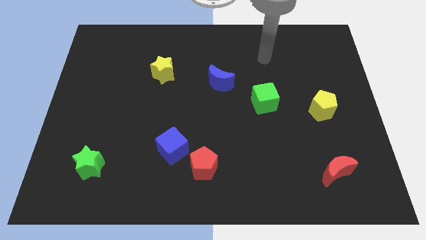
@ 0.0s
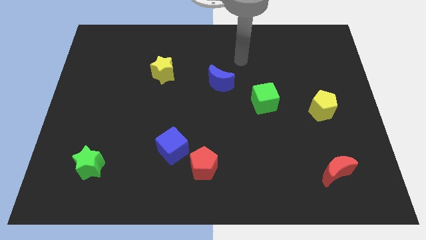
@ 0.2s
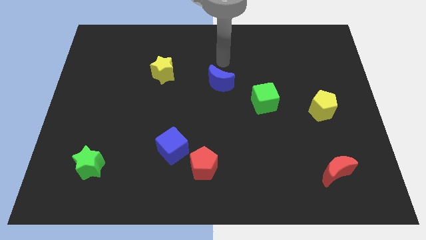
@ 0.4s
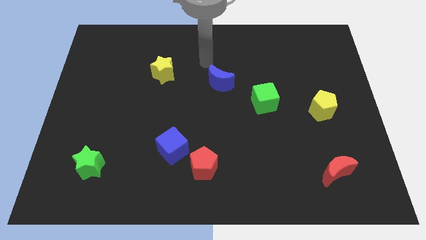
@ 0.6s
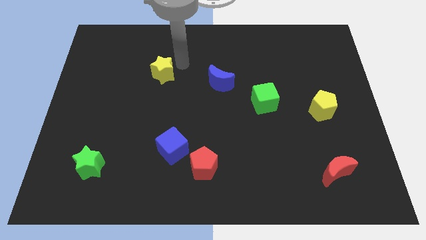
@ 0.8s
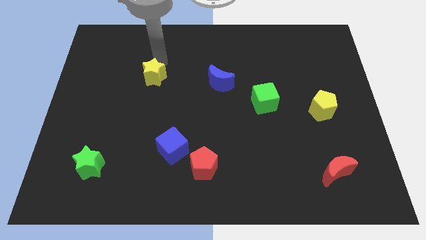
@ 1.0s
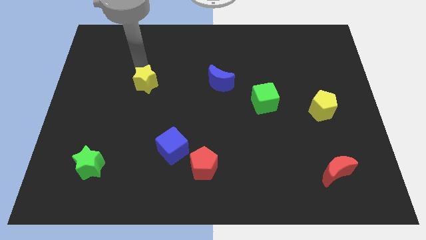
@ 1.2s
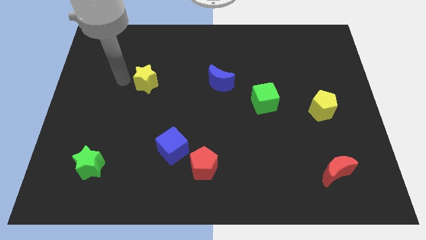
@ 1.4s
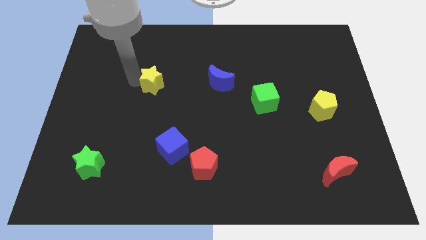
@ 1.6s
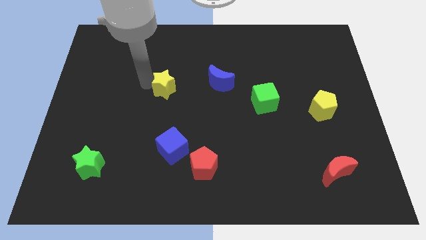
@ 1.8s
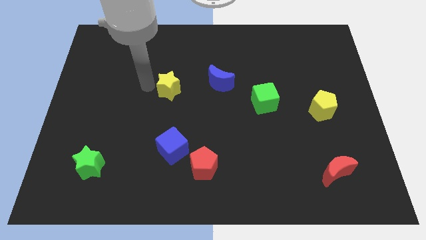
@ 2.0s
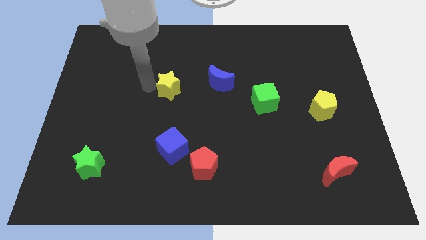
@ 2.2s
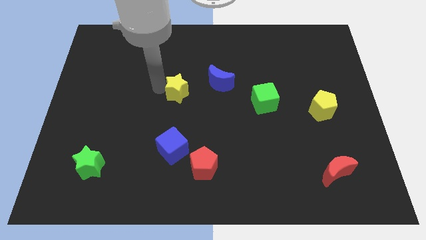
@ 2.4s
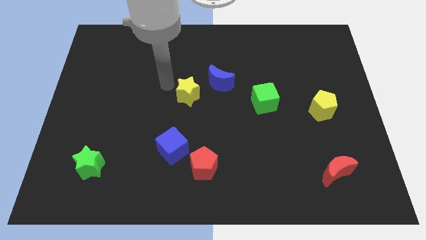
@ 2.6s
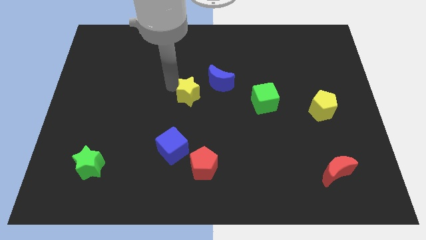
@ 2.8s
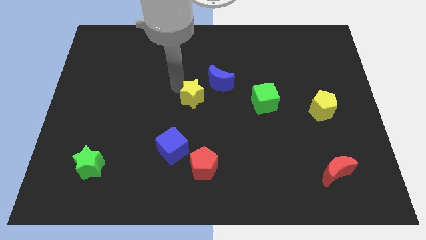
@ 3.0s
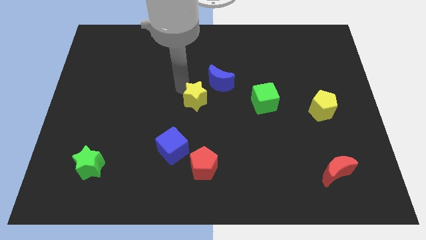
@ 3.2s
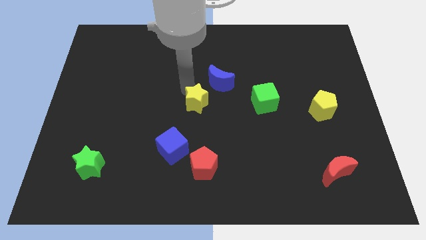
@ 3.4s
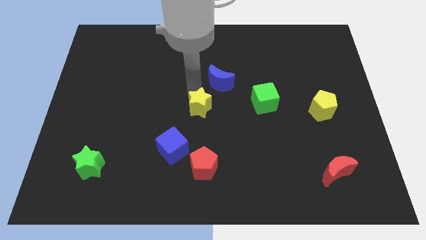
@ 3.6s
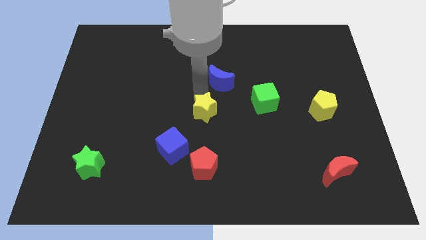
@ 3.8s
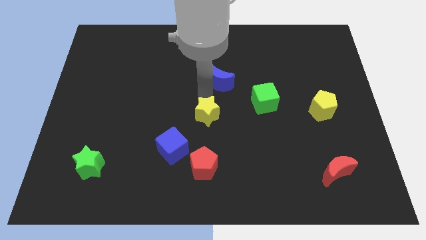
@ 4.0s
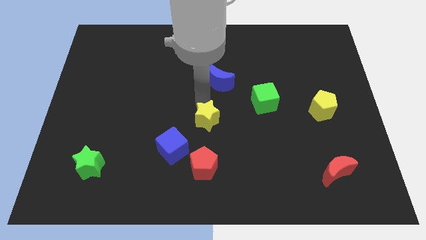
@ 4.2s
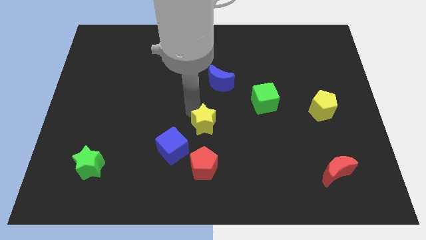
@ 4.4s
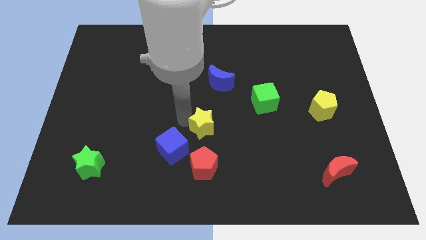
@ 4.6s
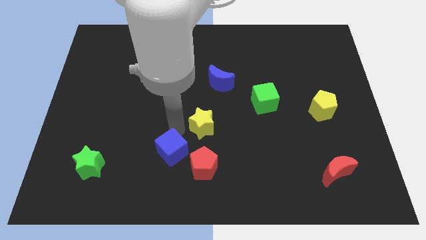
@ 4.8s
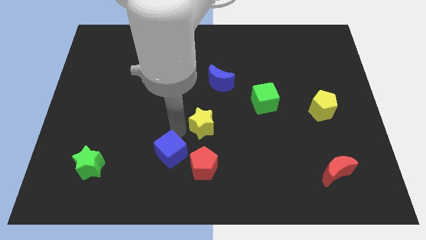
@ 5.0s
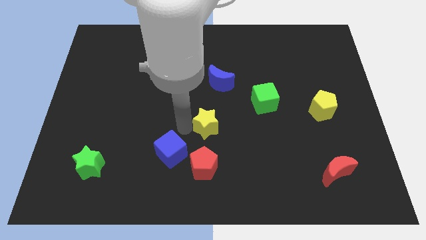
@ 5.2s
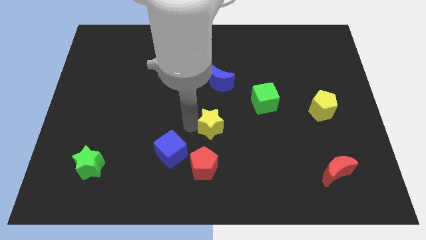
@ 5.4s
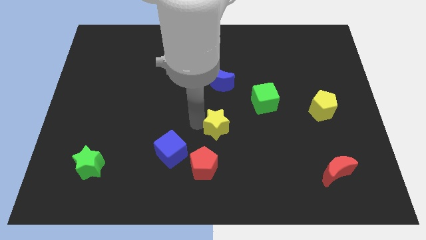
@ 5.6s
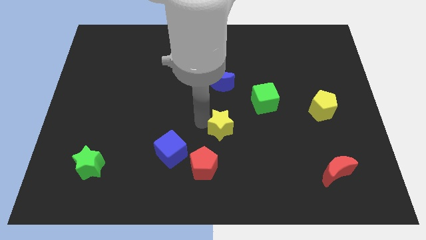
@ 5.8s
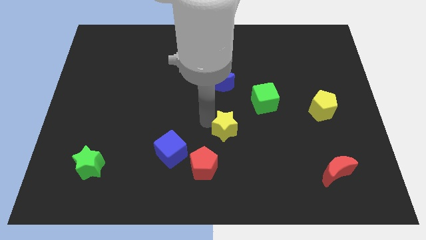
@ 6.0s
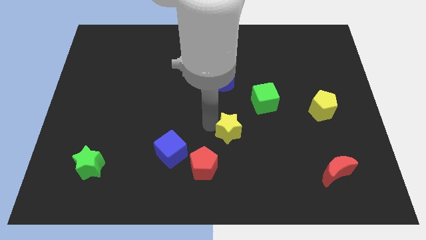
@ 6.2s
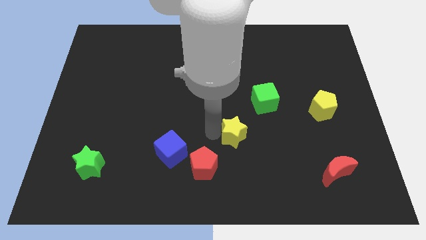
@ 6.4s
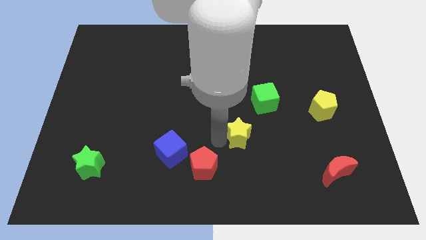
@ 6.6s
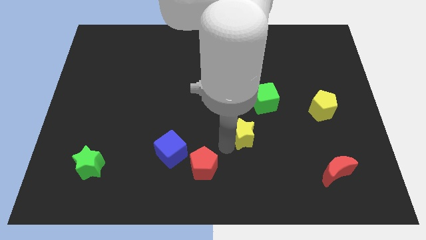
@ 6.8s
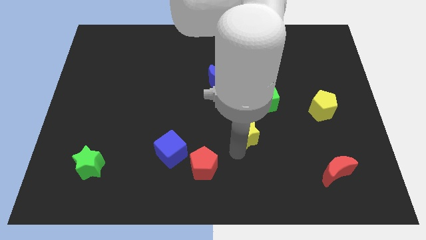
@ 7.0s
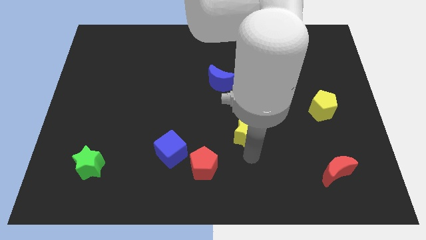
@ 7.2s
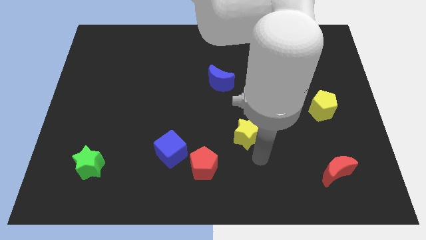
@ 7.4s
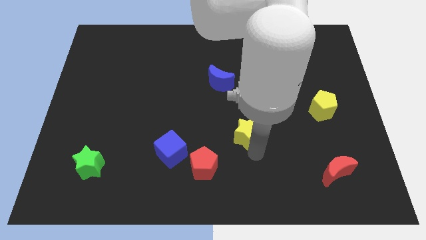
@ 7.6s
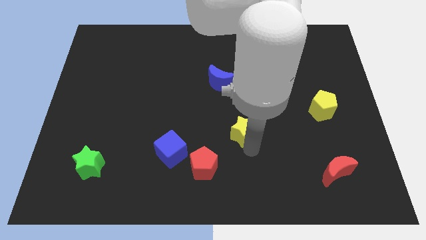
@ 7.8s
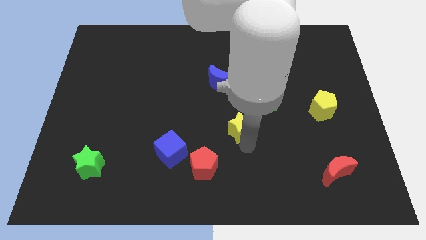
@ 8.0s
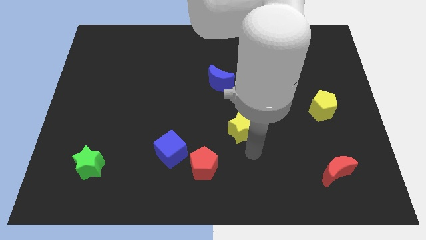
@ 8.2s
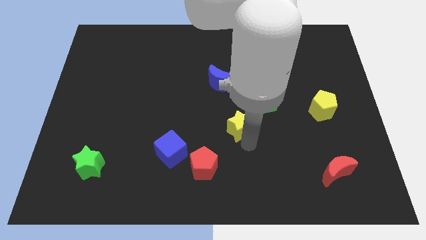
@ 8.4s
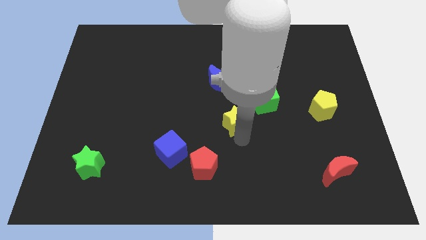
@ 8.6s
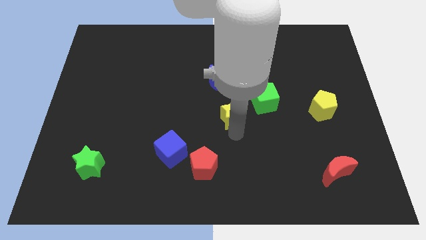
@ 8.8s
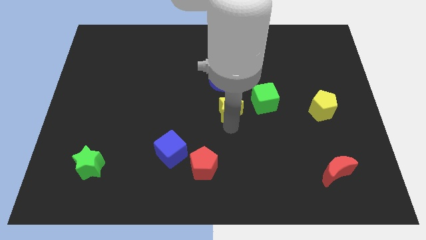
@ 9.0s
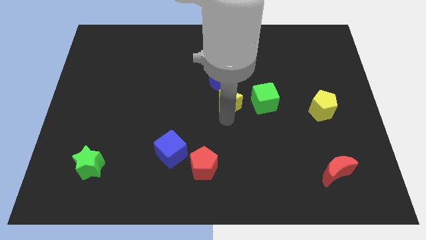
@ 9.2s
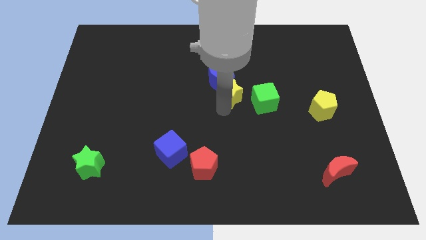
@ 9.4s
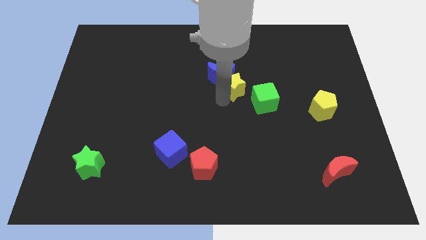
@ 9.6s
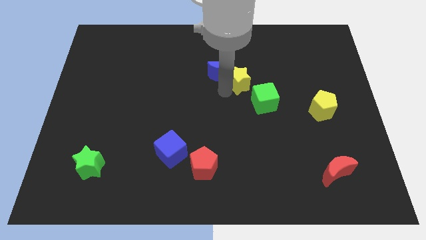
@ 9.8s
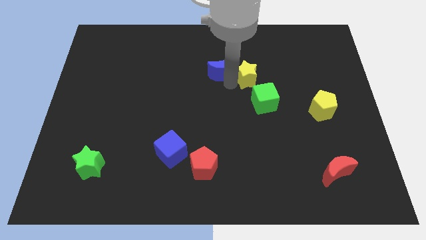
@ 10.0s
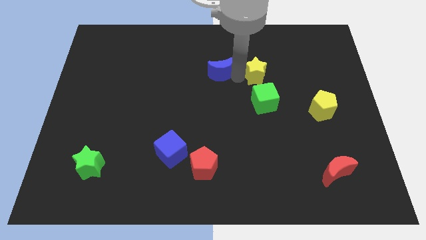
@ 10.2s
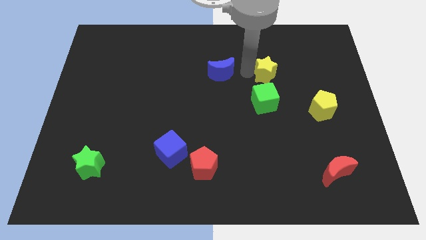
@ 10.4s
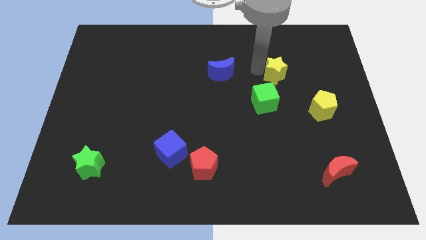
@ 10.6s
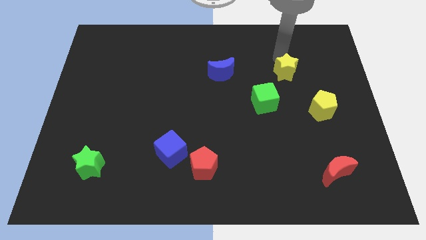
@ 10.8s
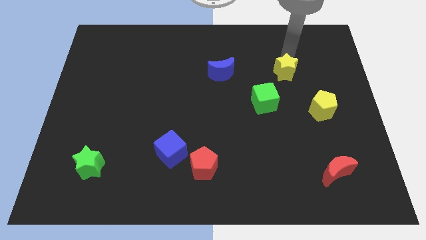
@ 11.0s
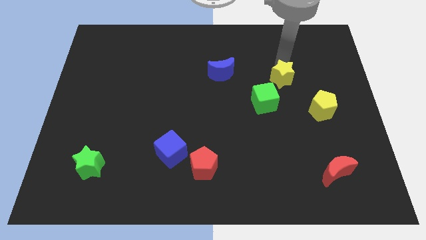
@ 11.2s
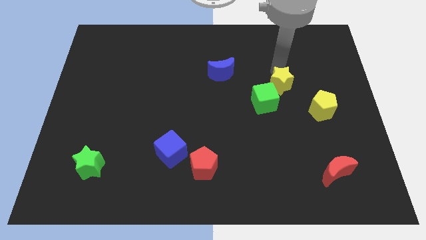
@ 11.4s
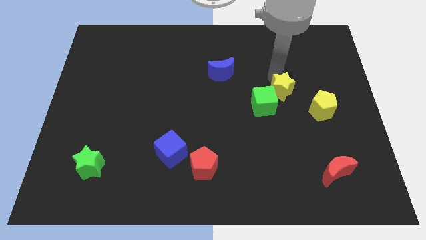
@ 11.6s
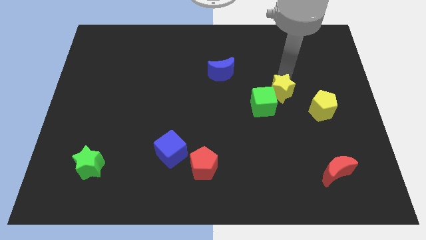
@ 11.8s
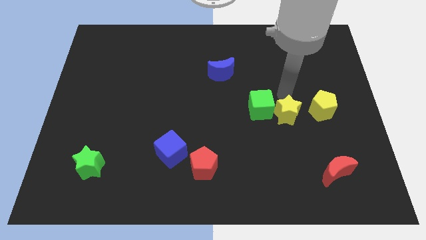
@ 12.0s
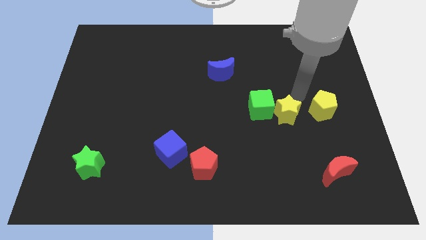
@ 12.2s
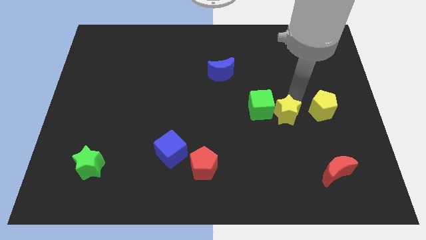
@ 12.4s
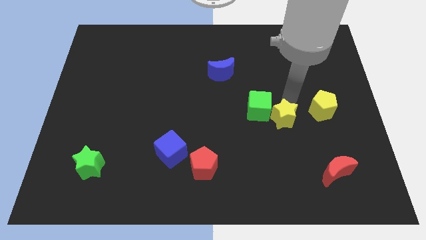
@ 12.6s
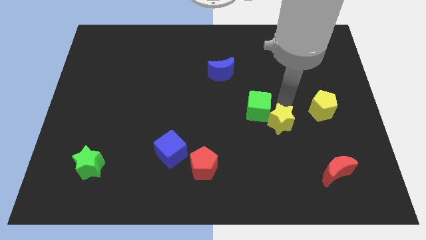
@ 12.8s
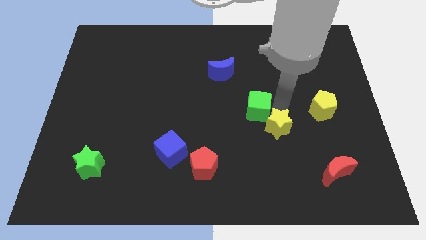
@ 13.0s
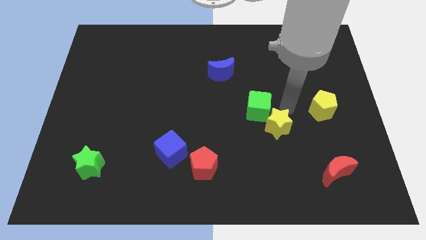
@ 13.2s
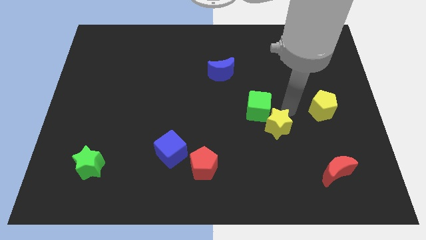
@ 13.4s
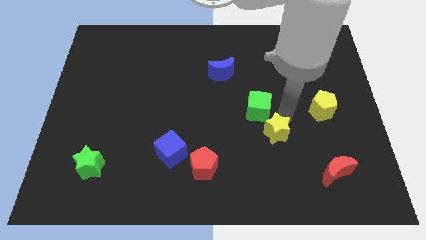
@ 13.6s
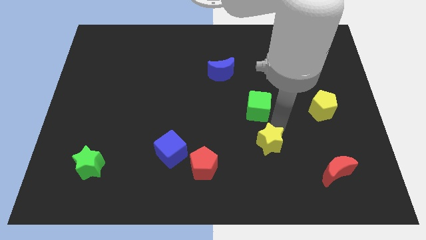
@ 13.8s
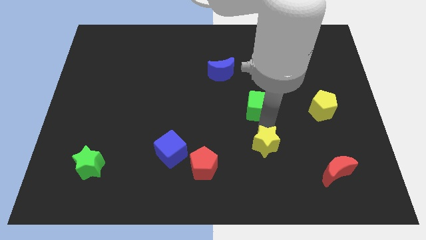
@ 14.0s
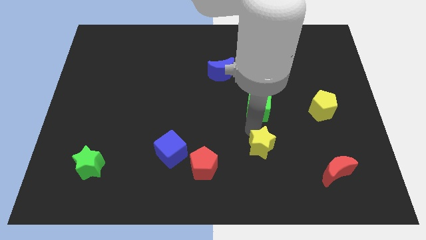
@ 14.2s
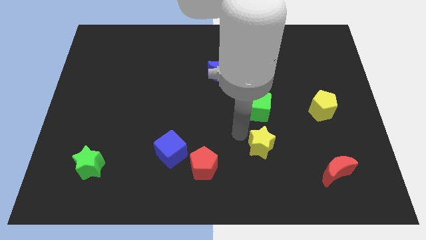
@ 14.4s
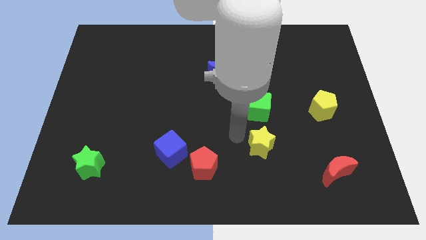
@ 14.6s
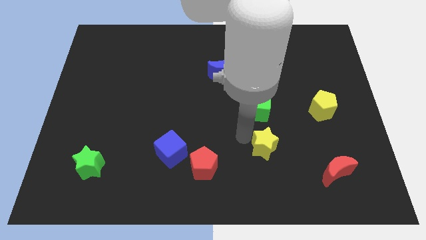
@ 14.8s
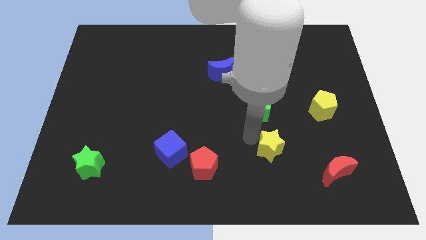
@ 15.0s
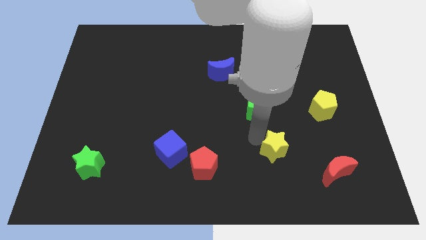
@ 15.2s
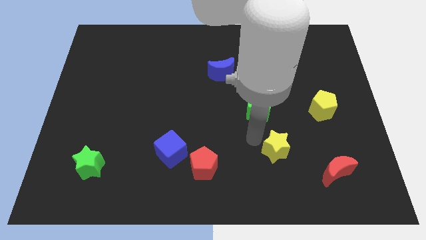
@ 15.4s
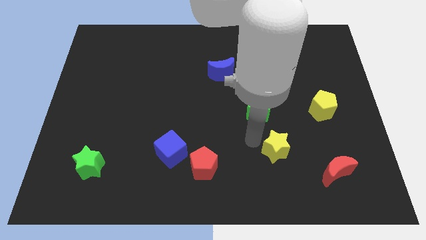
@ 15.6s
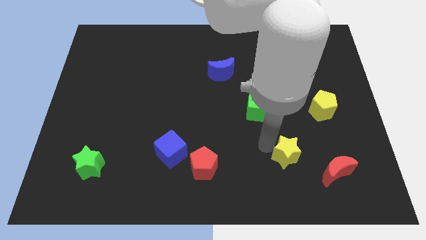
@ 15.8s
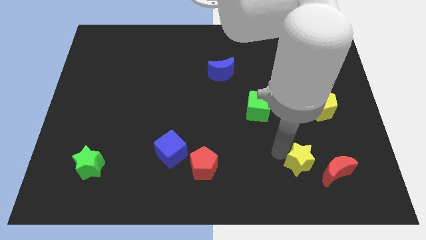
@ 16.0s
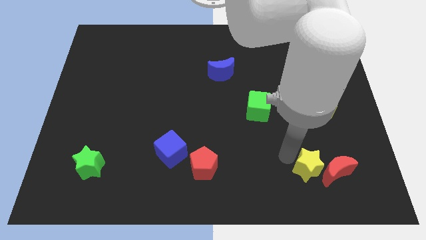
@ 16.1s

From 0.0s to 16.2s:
push the yellow star close to the red moon
